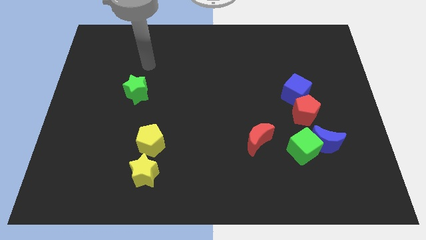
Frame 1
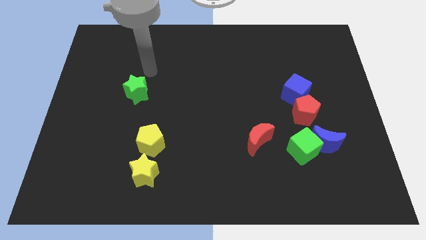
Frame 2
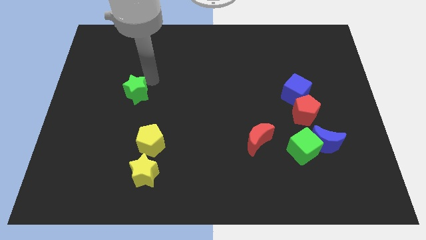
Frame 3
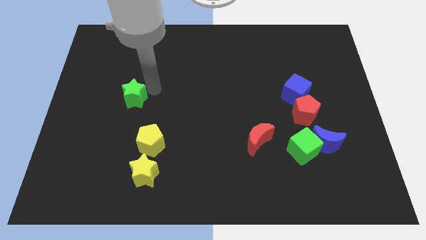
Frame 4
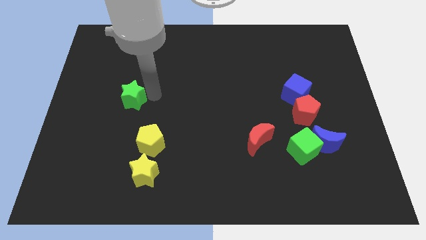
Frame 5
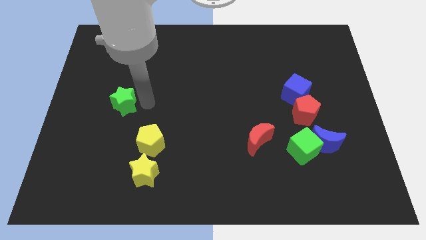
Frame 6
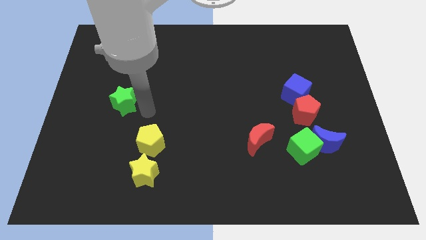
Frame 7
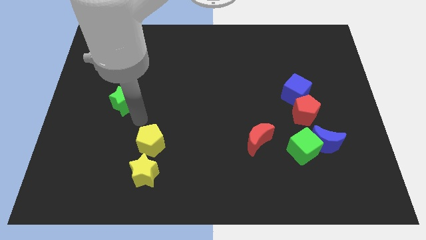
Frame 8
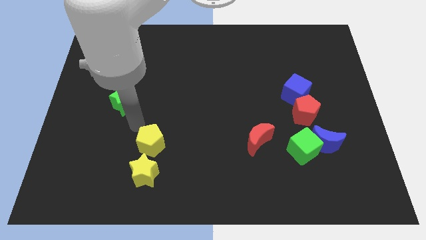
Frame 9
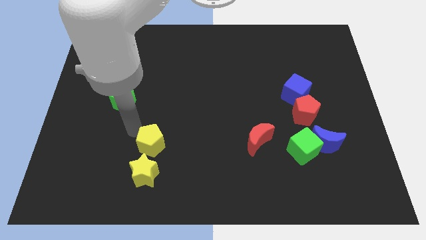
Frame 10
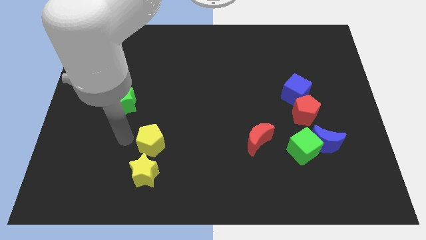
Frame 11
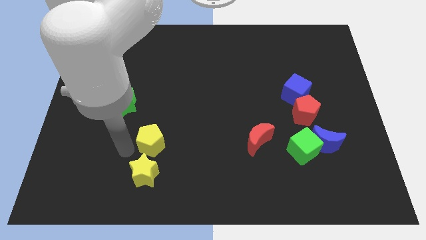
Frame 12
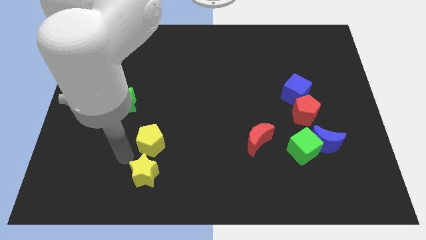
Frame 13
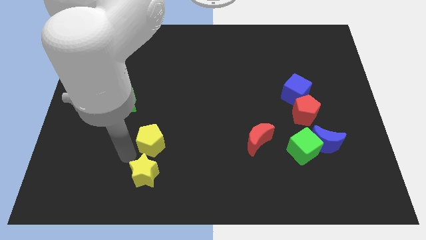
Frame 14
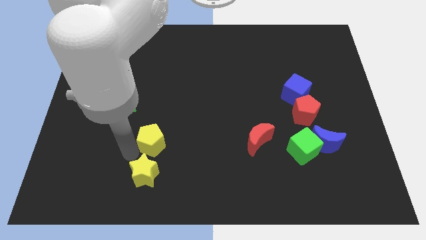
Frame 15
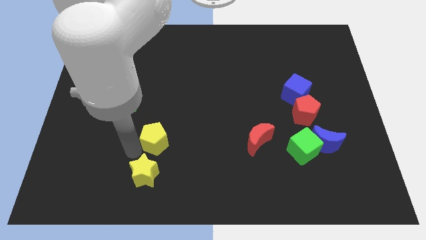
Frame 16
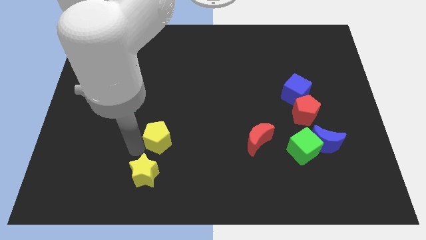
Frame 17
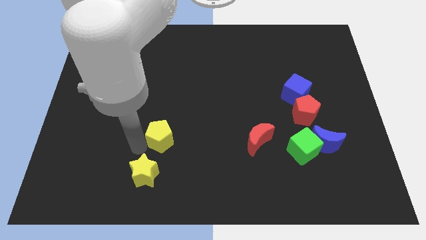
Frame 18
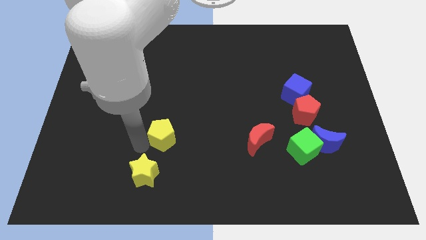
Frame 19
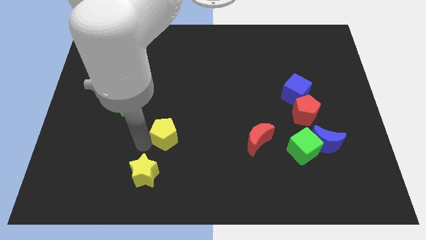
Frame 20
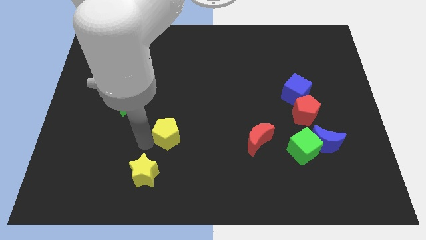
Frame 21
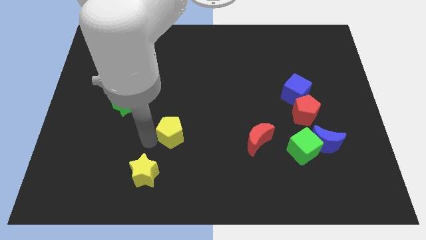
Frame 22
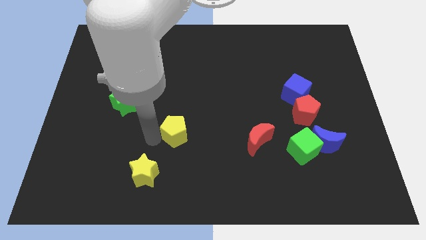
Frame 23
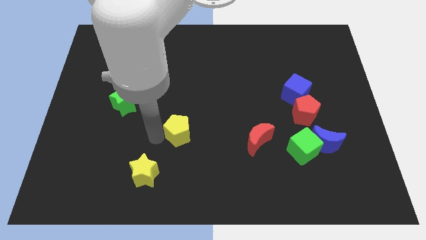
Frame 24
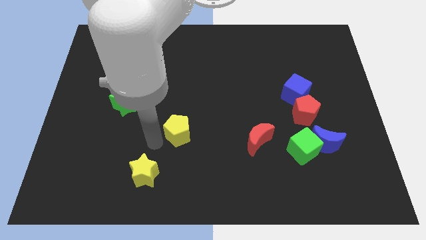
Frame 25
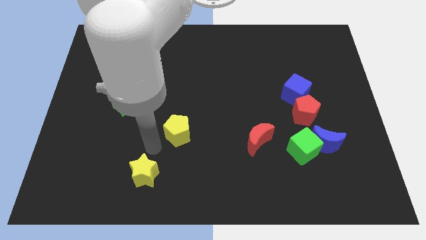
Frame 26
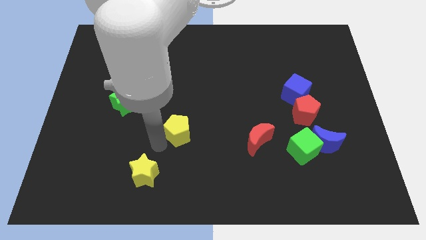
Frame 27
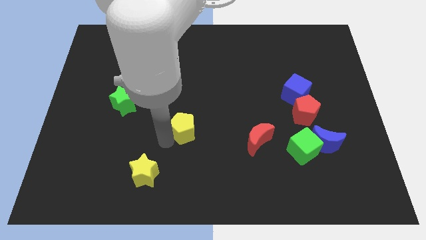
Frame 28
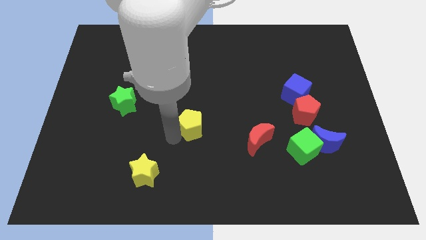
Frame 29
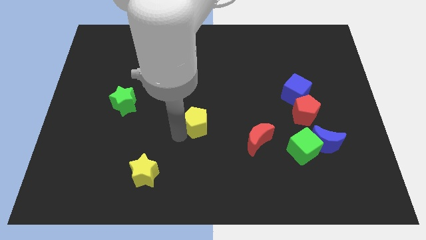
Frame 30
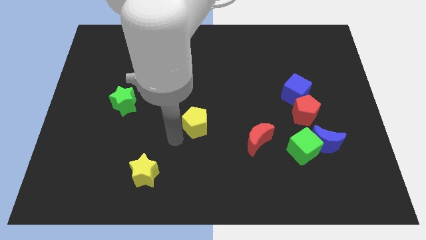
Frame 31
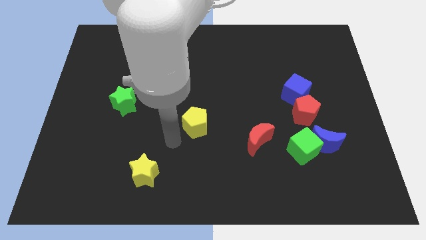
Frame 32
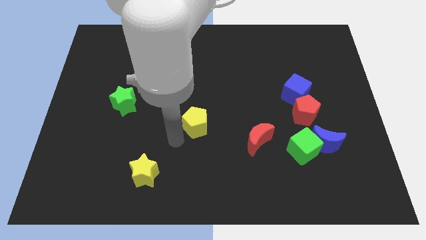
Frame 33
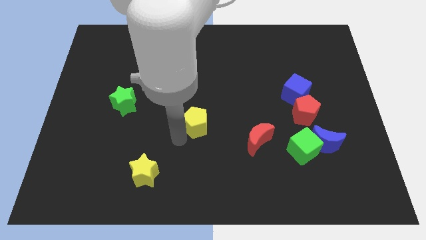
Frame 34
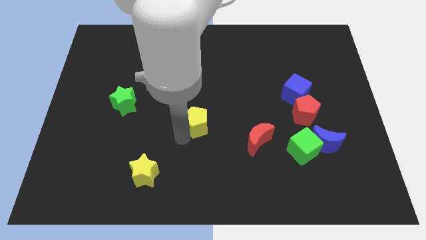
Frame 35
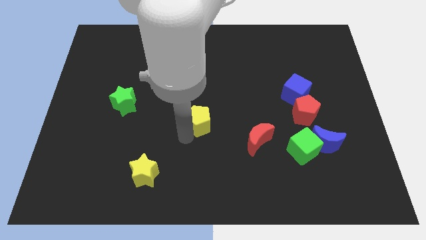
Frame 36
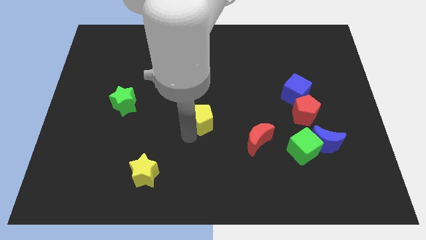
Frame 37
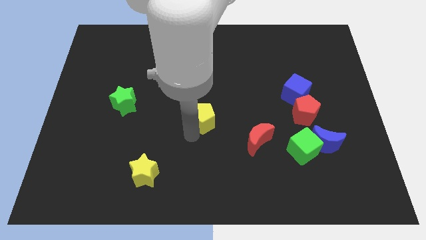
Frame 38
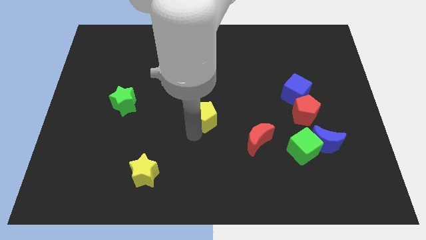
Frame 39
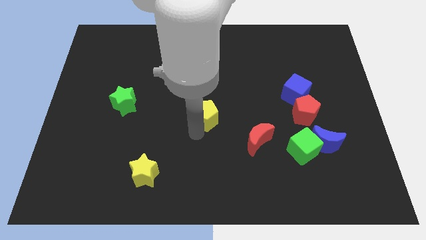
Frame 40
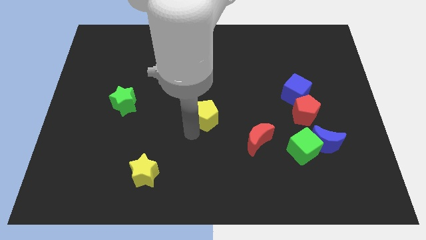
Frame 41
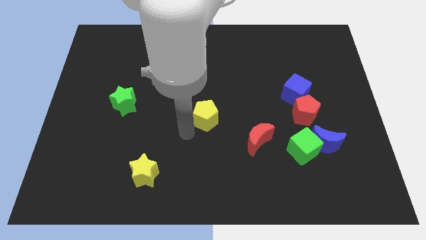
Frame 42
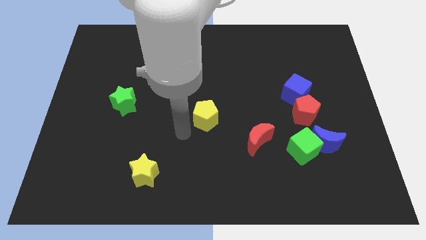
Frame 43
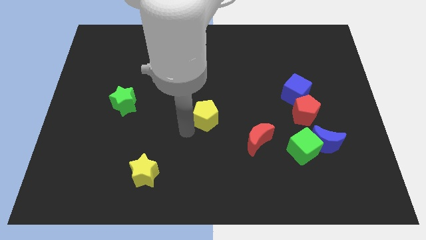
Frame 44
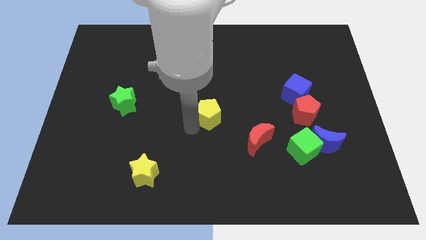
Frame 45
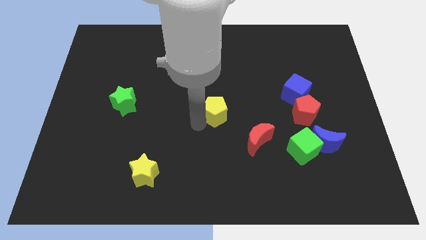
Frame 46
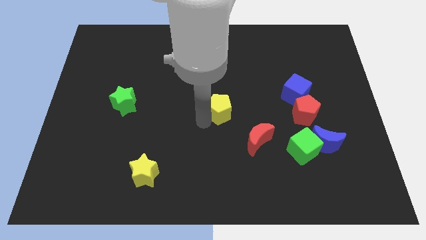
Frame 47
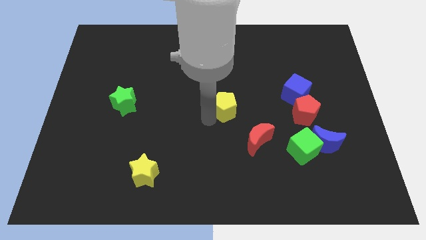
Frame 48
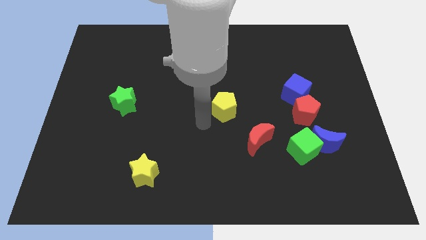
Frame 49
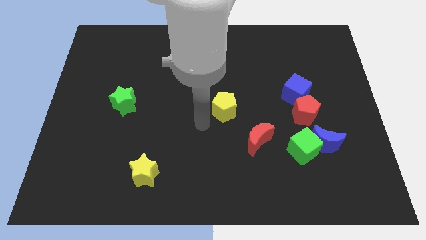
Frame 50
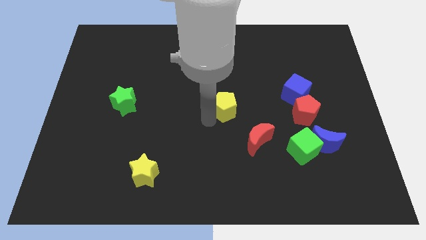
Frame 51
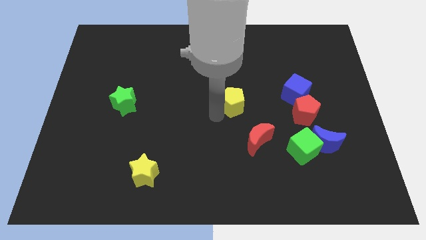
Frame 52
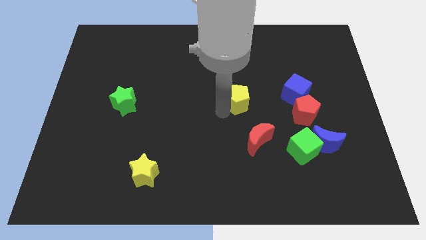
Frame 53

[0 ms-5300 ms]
move the yellow pentagon just left of the blue cube

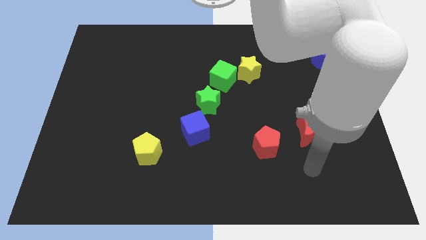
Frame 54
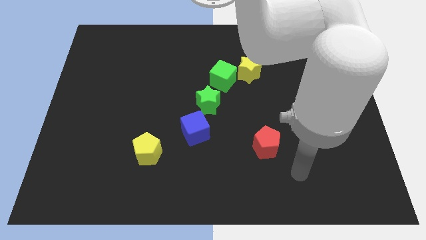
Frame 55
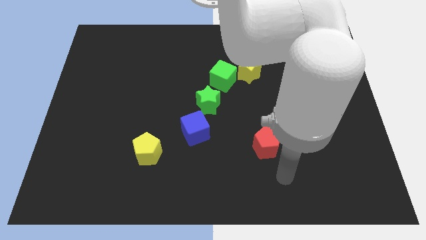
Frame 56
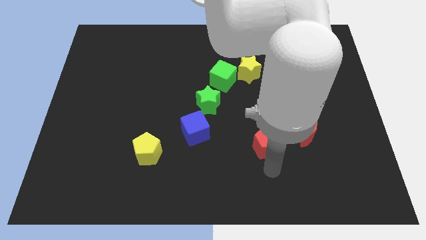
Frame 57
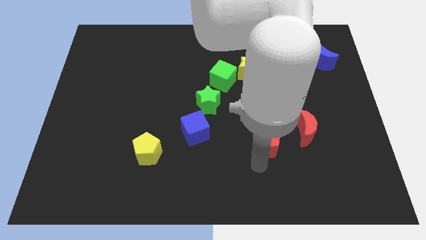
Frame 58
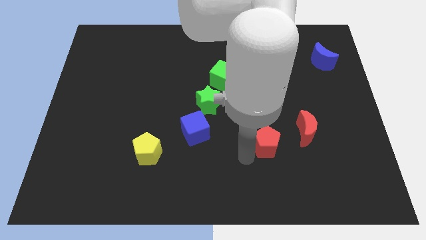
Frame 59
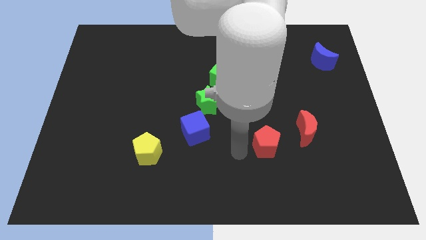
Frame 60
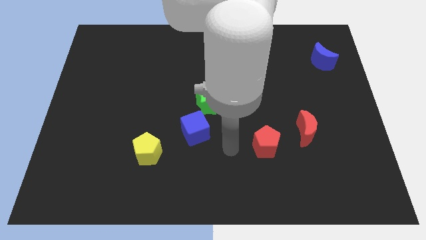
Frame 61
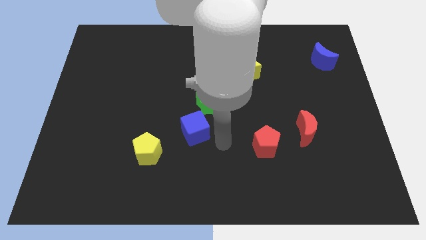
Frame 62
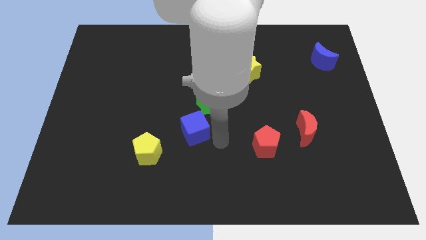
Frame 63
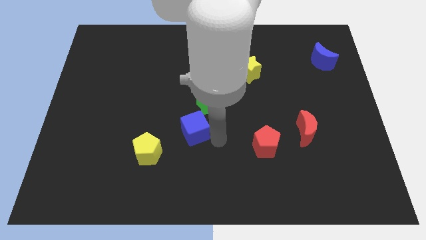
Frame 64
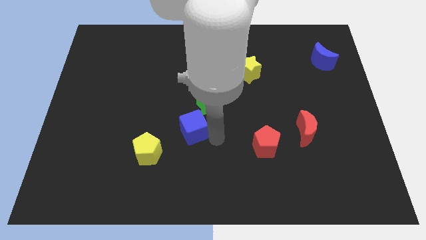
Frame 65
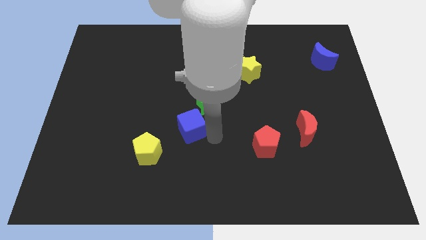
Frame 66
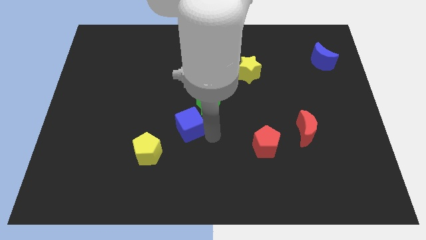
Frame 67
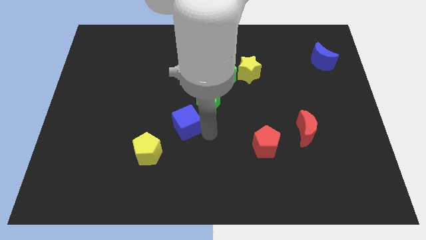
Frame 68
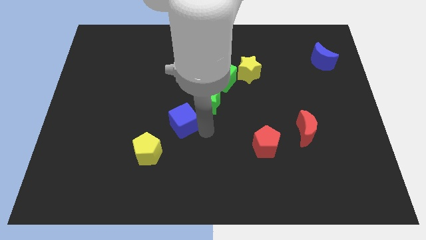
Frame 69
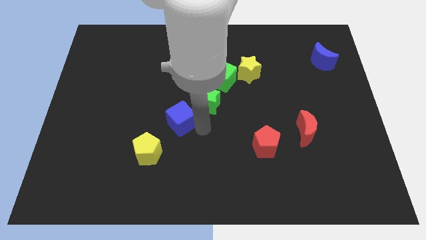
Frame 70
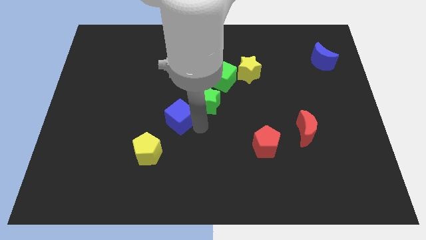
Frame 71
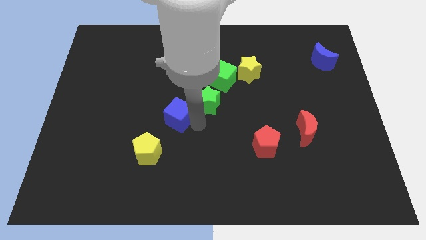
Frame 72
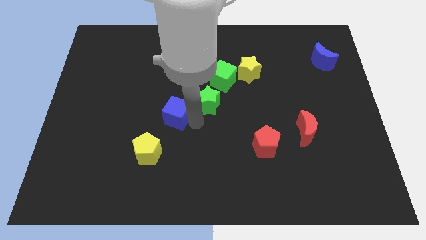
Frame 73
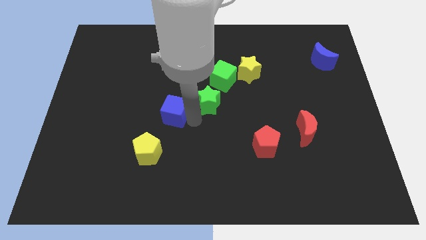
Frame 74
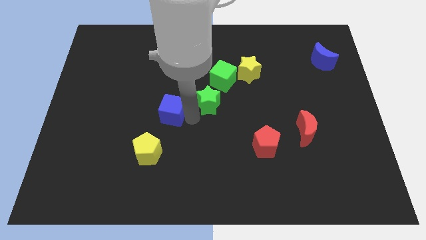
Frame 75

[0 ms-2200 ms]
push the blue cube to the top side of the yellow pentagon
